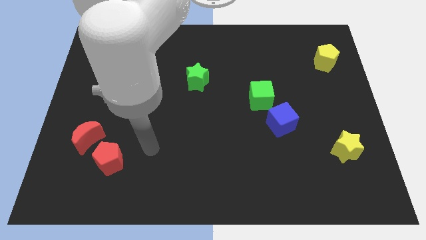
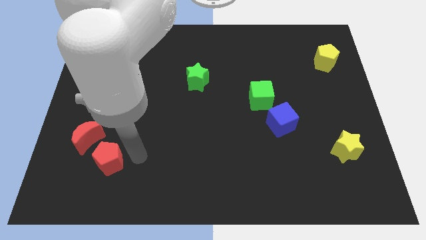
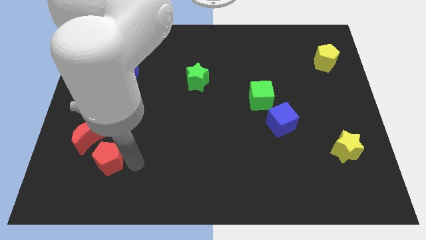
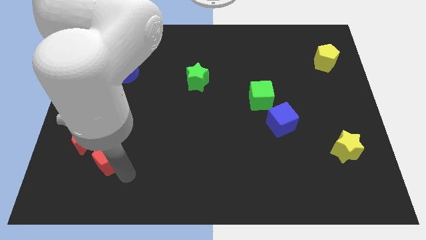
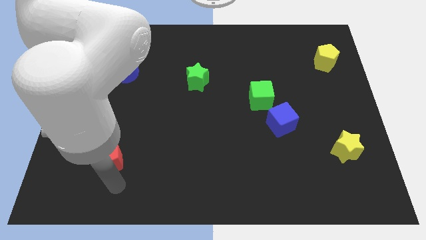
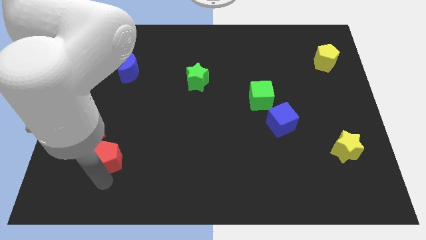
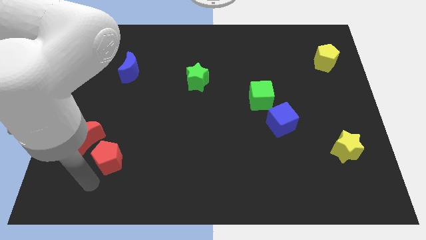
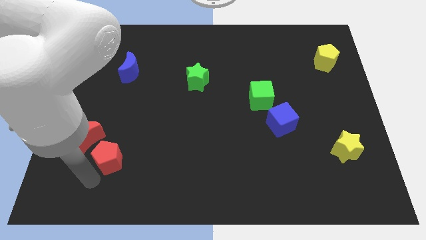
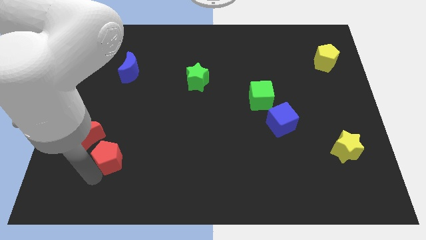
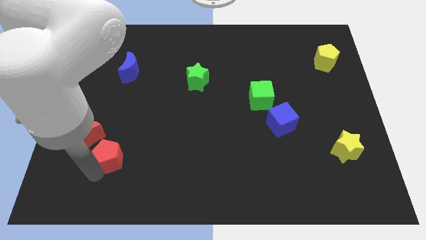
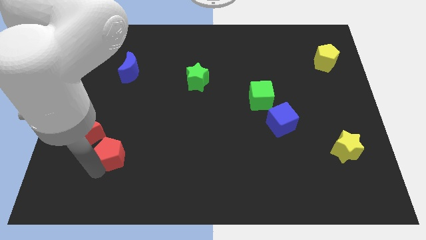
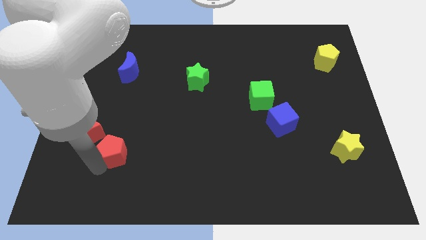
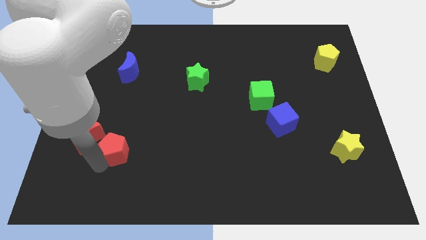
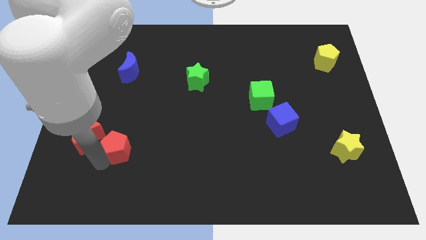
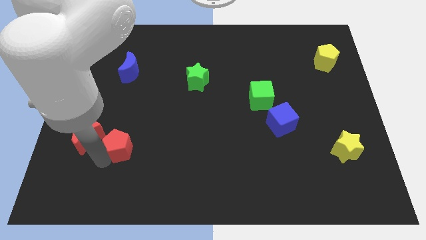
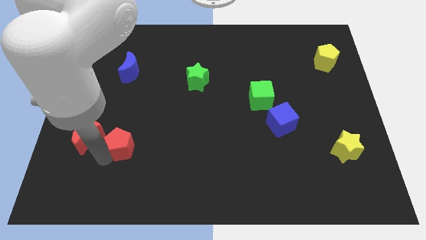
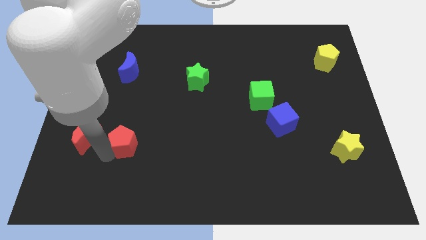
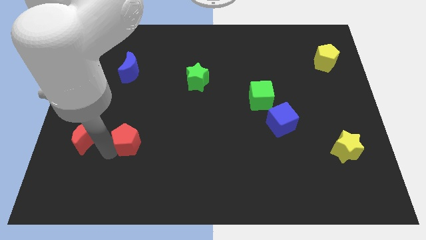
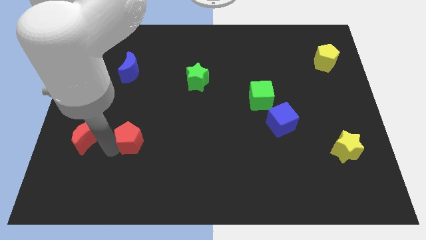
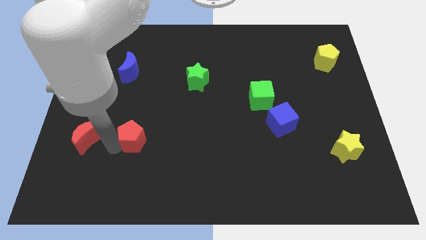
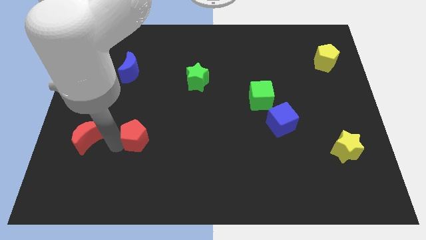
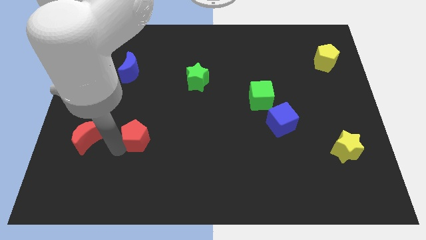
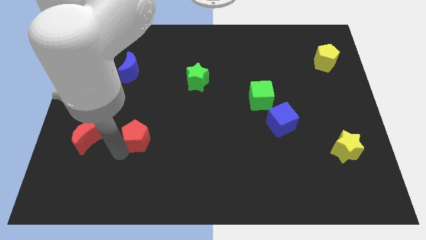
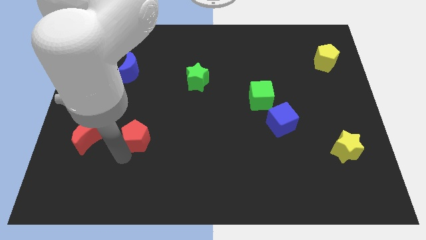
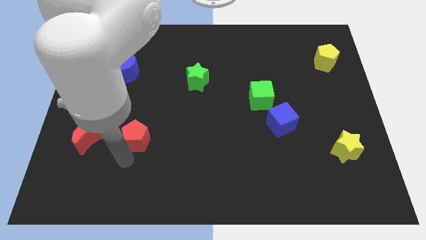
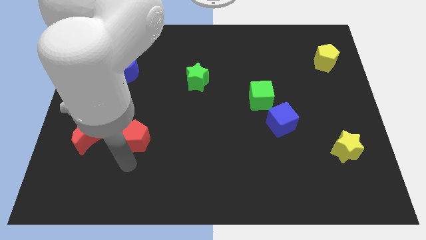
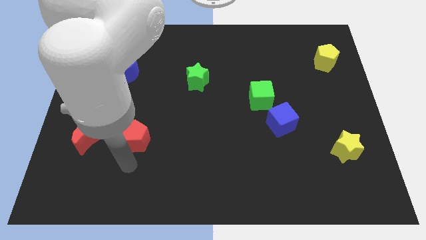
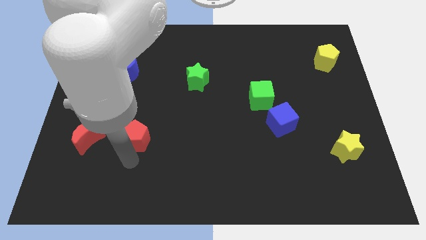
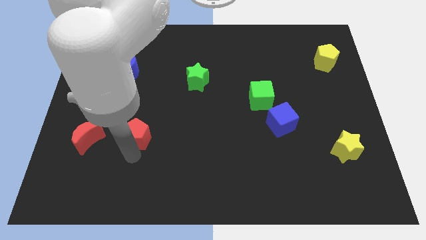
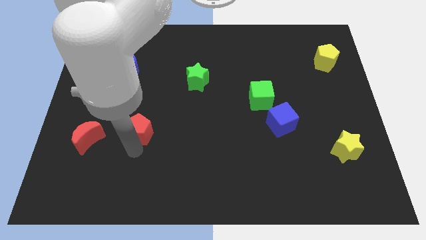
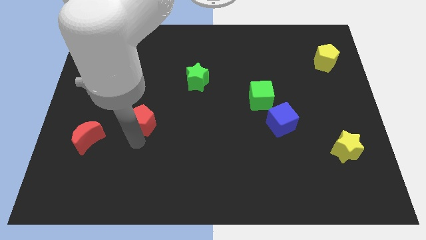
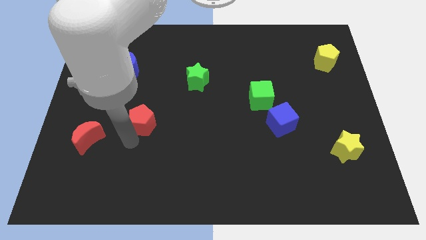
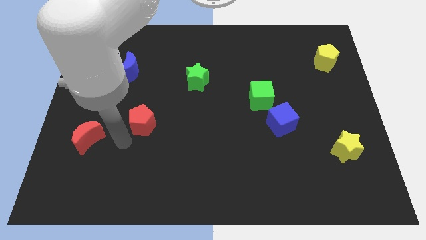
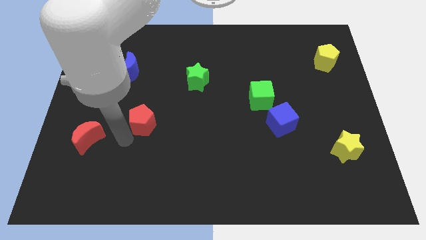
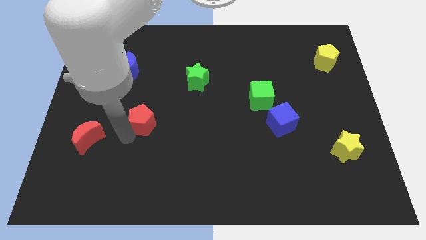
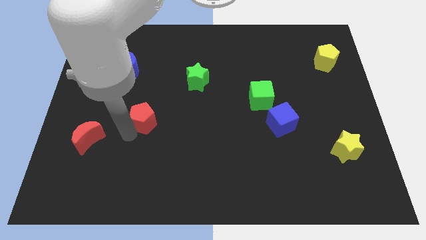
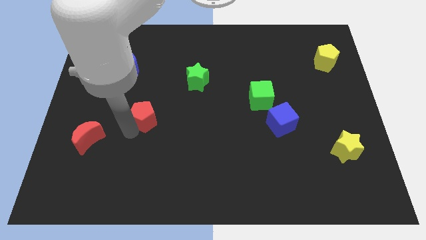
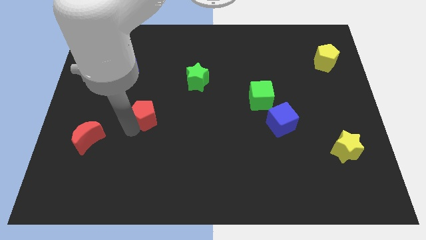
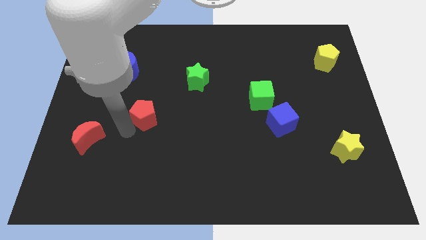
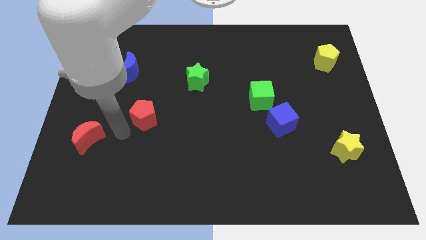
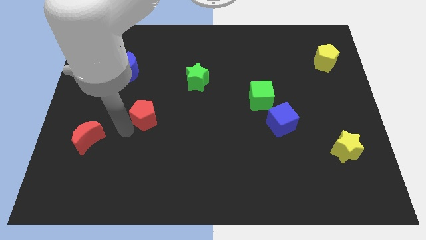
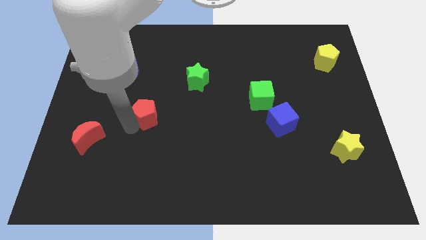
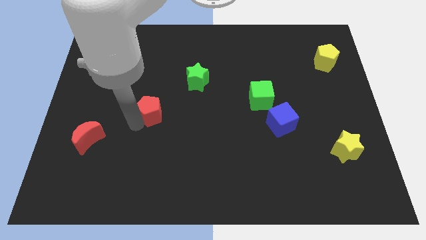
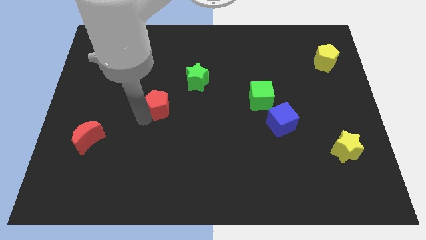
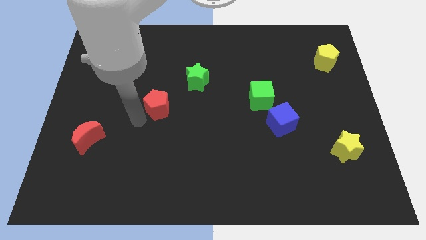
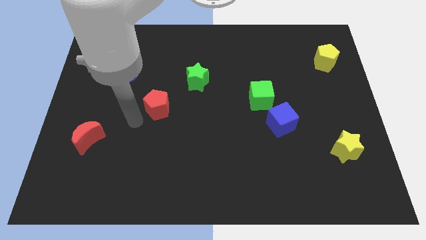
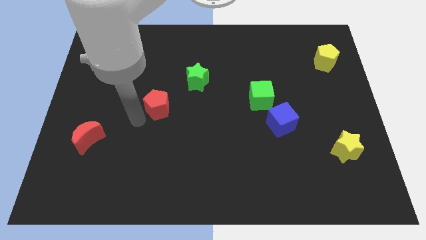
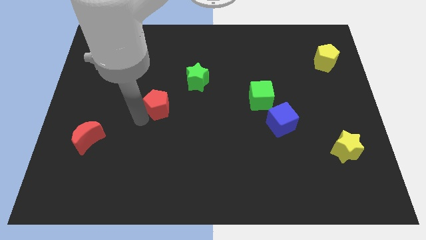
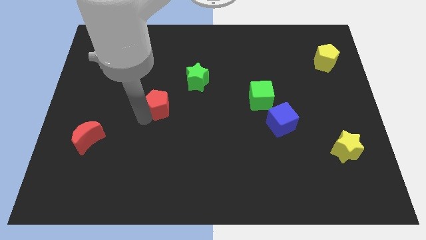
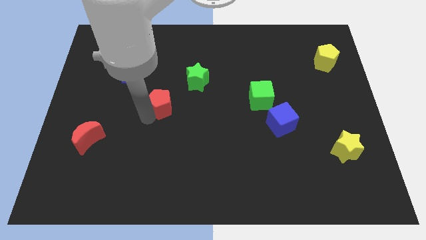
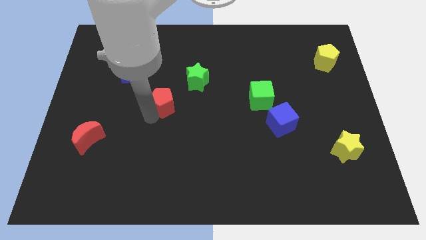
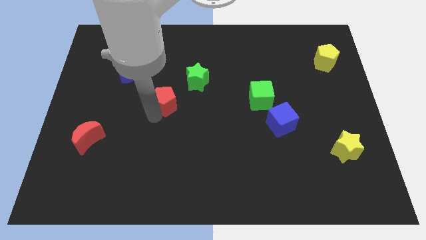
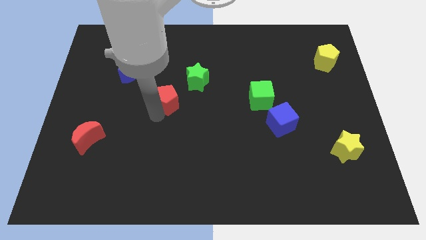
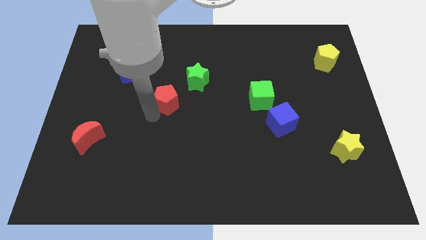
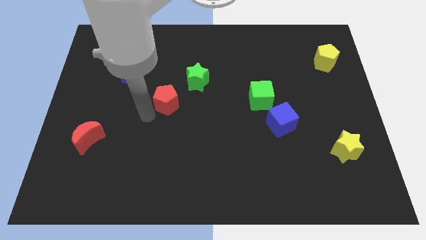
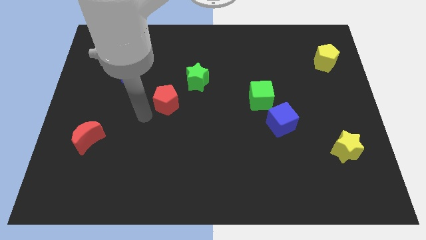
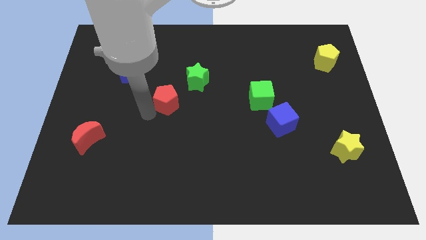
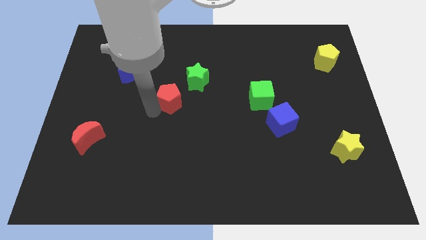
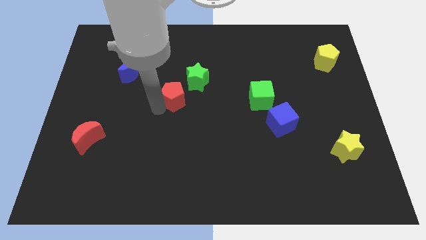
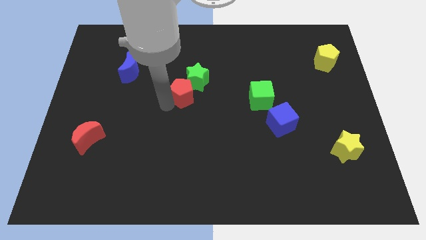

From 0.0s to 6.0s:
put the red pentagon towards the green star

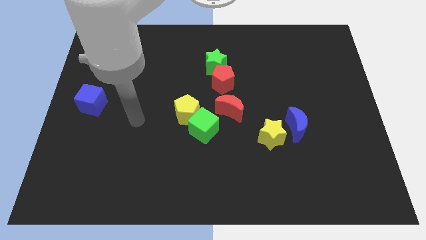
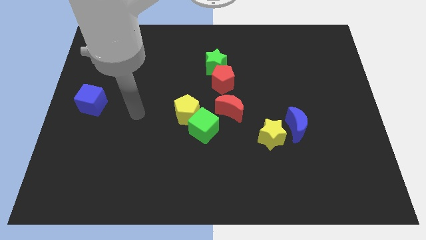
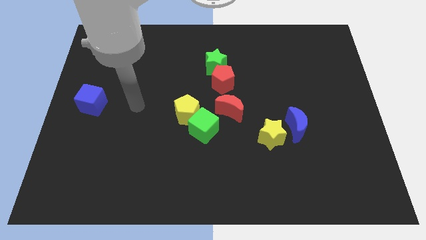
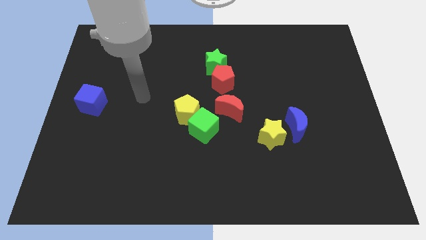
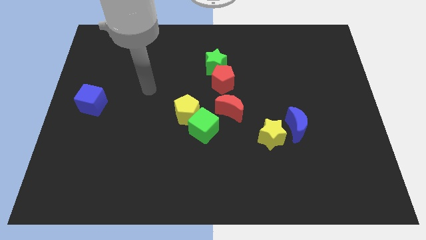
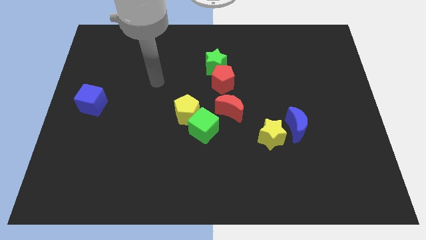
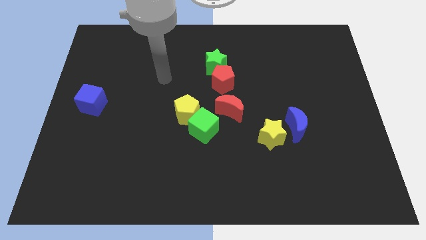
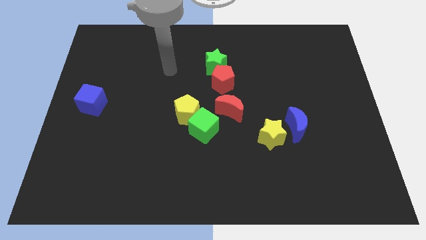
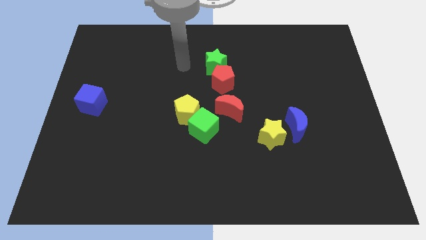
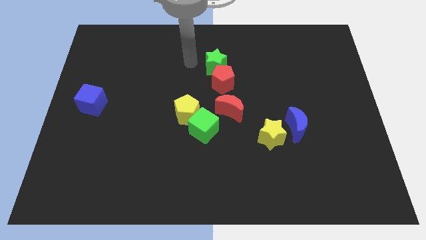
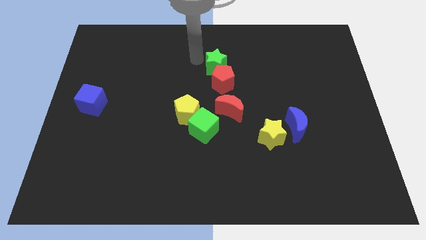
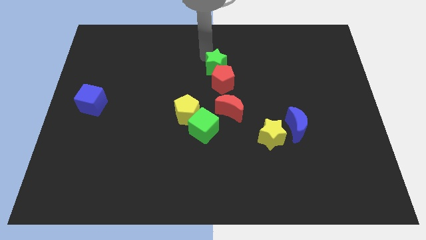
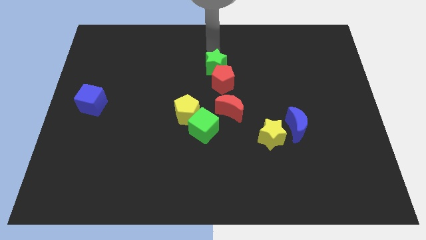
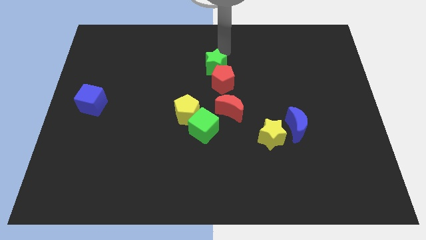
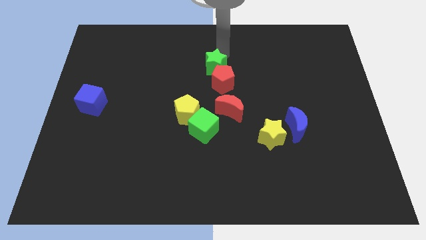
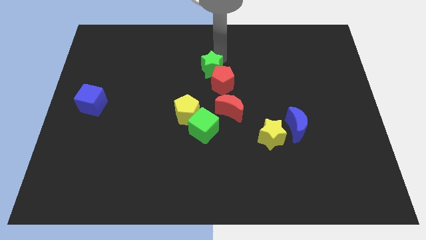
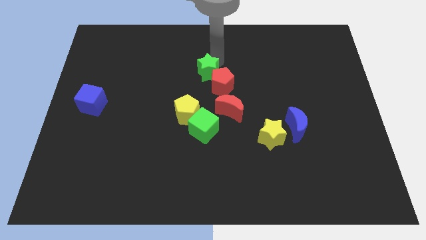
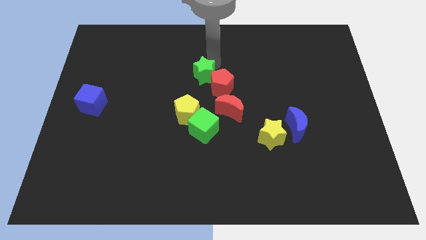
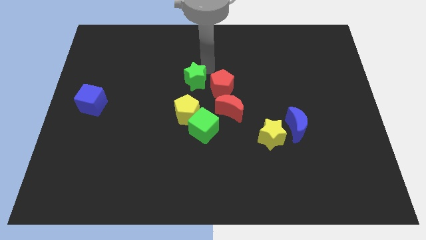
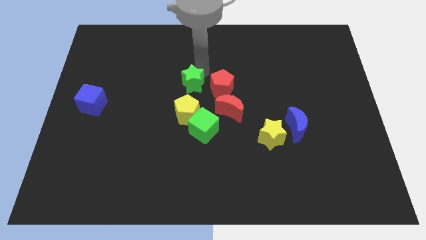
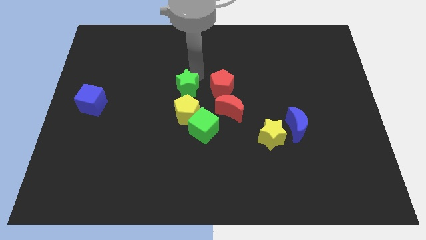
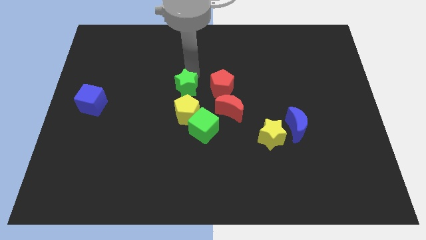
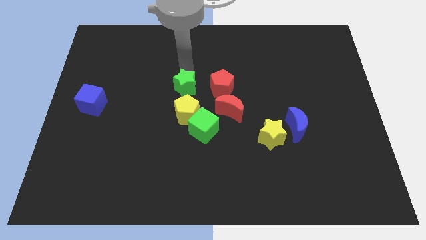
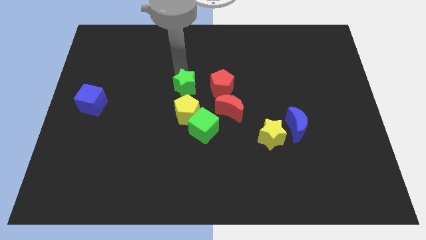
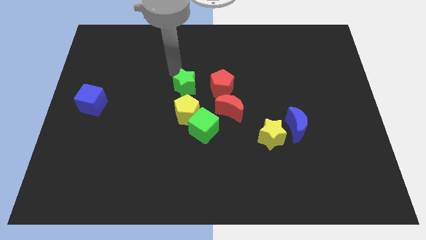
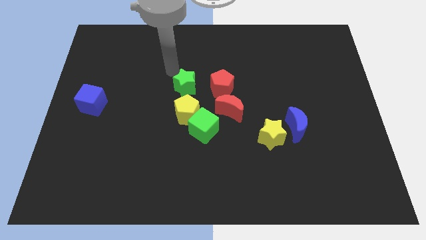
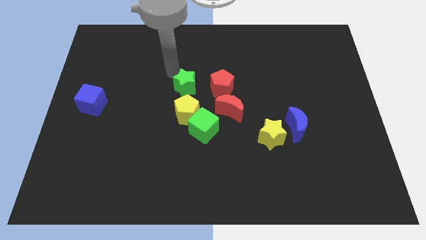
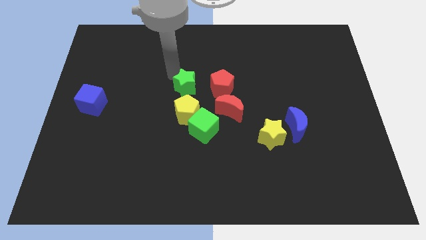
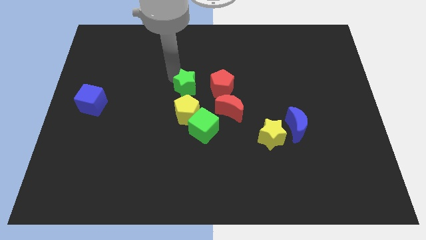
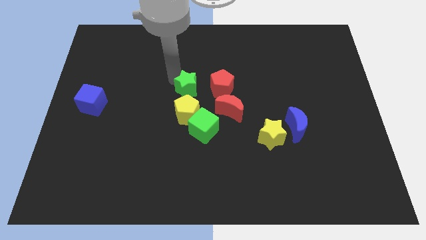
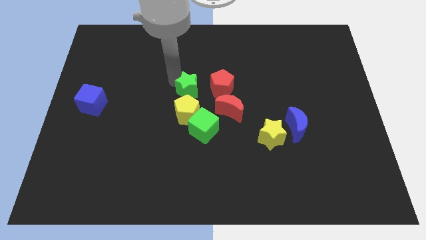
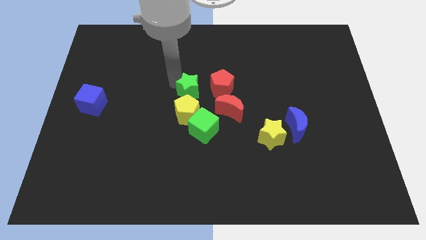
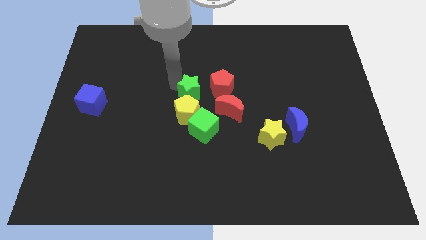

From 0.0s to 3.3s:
move the green star next to the yellow pentagon
